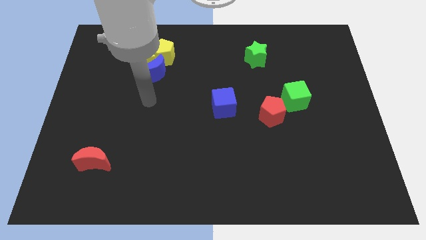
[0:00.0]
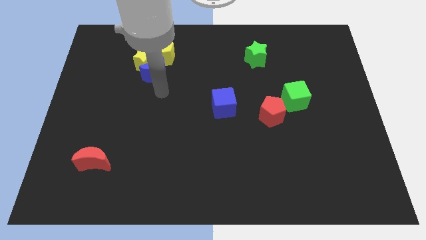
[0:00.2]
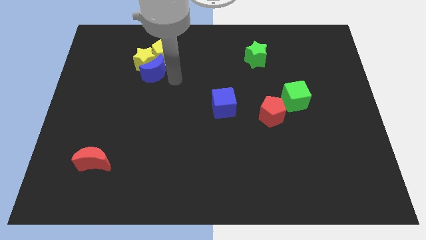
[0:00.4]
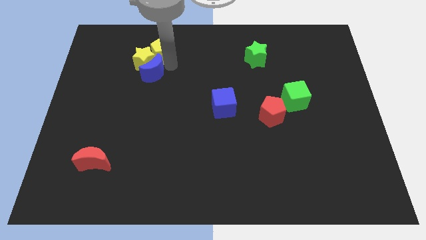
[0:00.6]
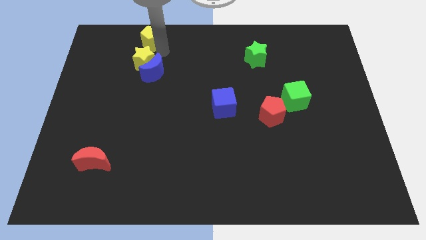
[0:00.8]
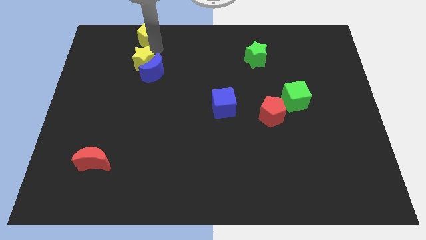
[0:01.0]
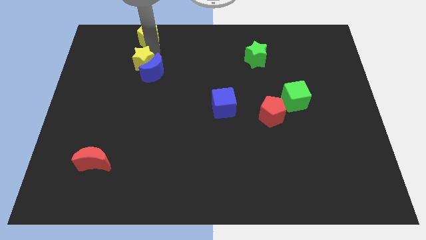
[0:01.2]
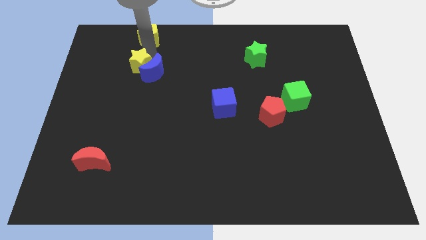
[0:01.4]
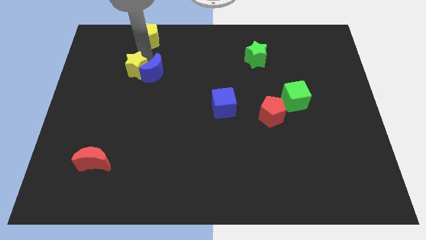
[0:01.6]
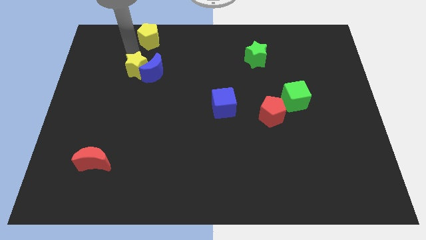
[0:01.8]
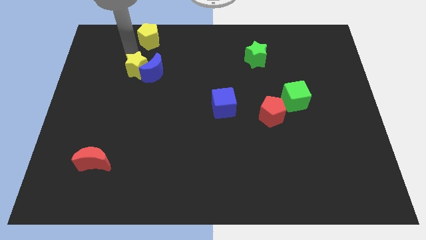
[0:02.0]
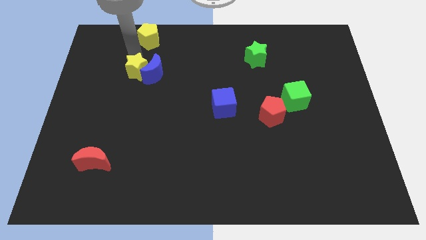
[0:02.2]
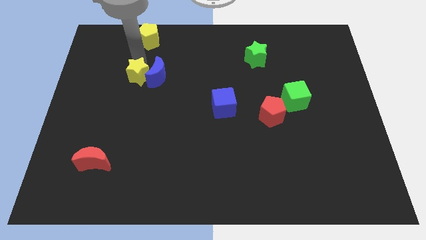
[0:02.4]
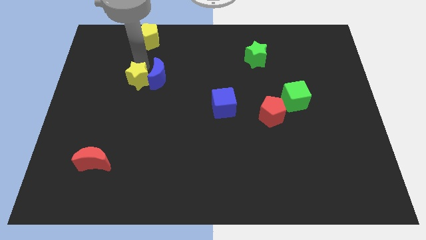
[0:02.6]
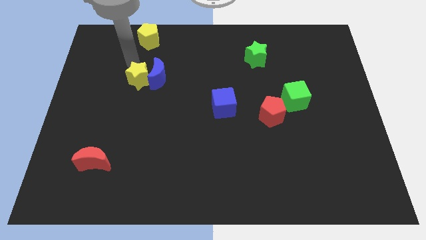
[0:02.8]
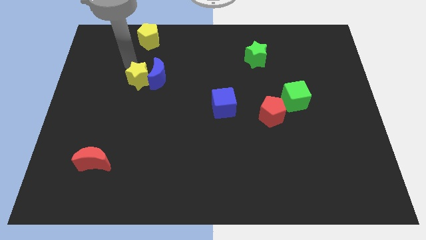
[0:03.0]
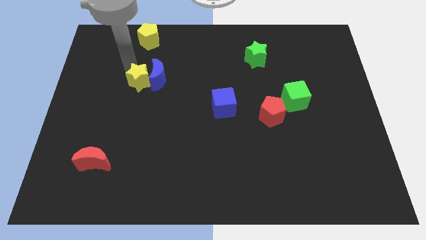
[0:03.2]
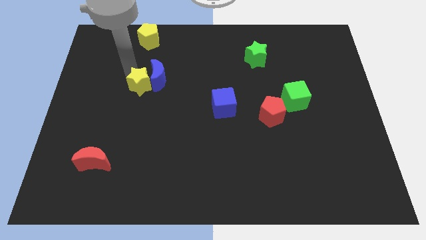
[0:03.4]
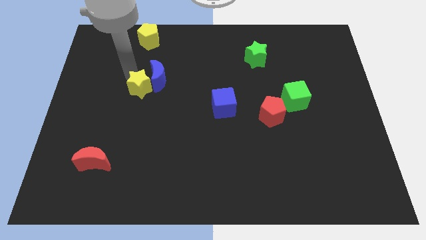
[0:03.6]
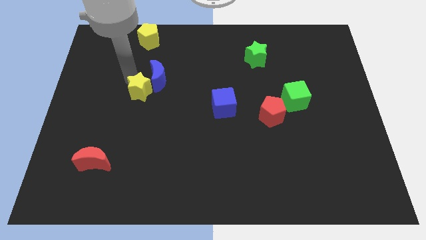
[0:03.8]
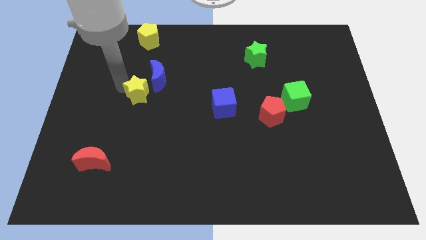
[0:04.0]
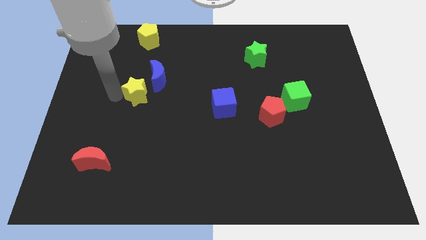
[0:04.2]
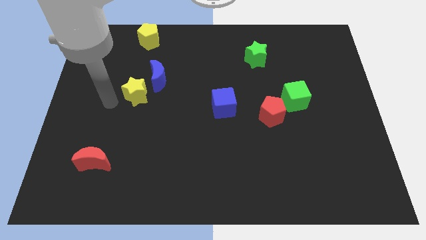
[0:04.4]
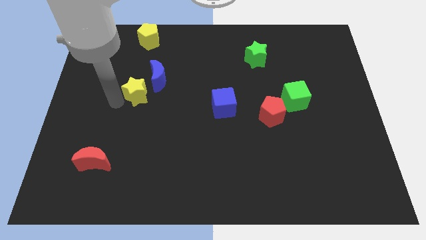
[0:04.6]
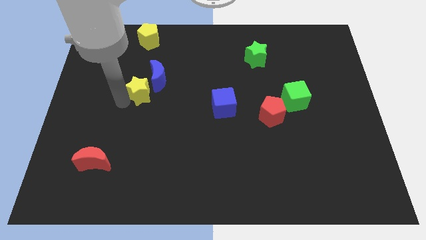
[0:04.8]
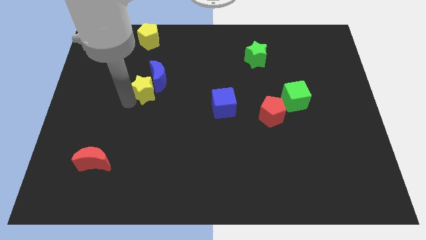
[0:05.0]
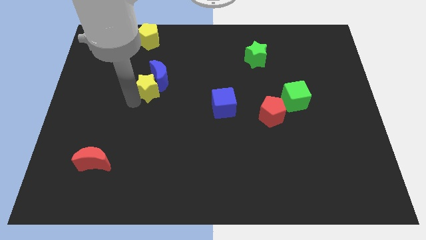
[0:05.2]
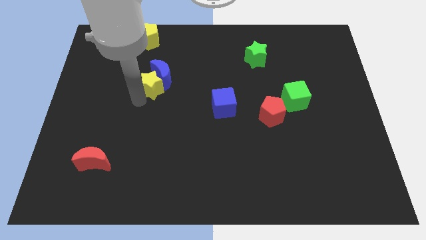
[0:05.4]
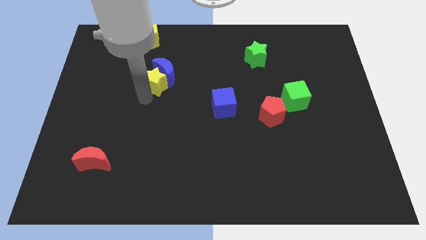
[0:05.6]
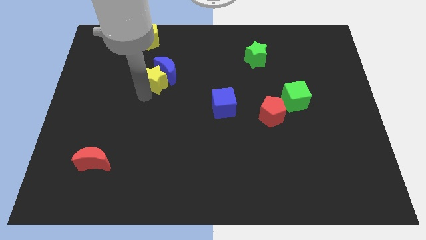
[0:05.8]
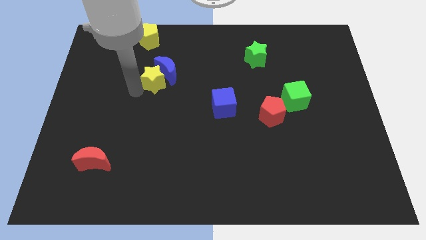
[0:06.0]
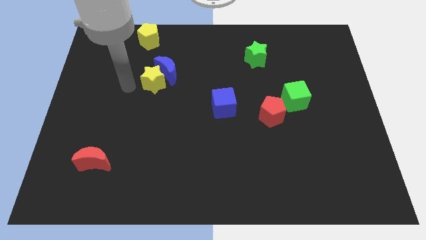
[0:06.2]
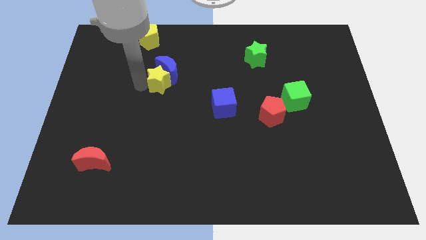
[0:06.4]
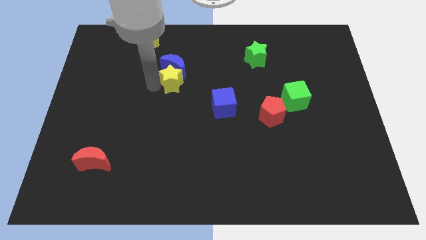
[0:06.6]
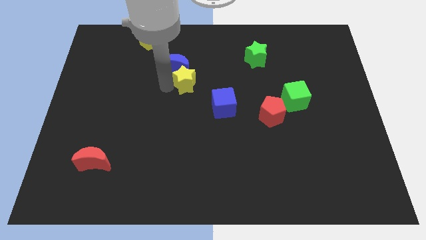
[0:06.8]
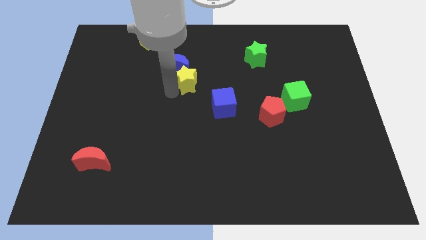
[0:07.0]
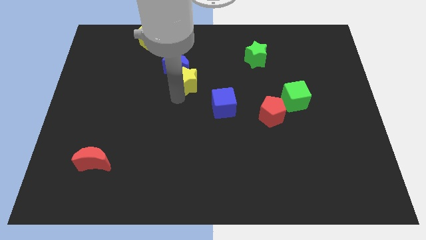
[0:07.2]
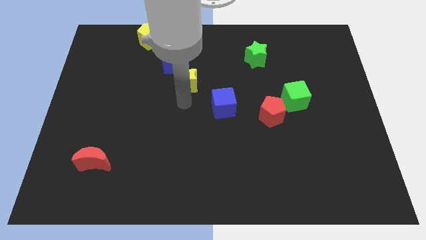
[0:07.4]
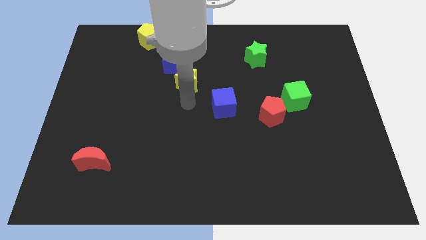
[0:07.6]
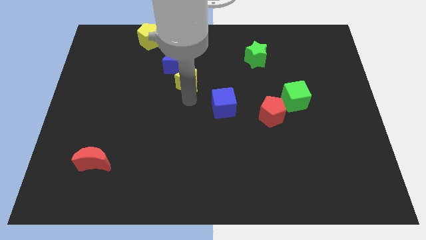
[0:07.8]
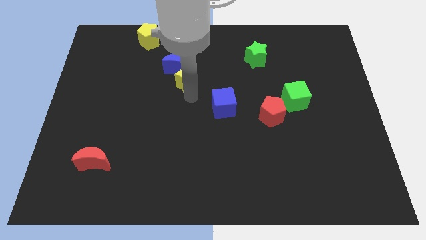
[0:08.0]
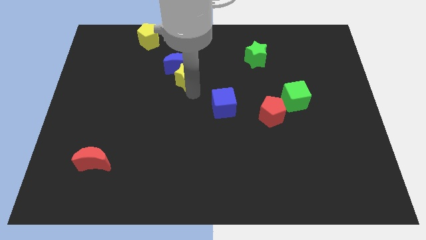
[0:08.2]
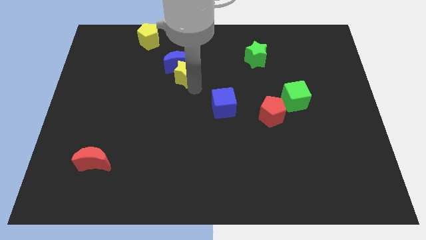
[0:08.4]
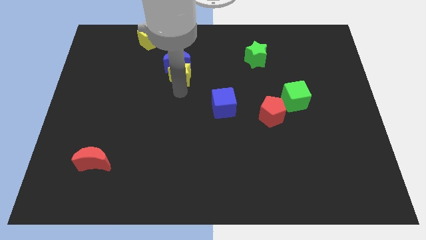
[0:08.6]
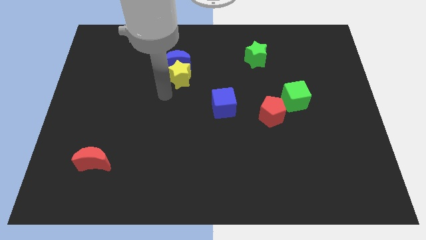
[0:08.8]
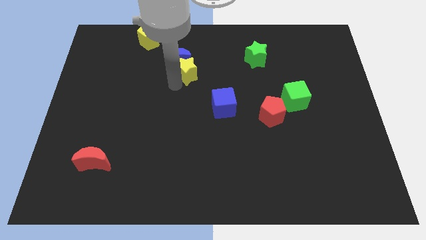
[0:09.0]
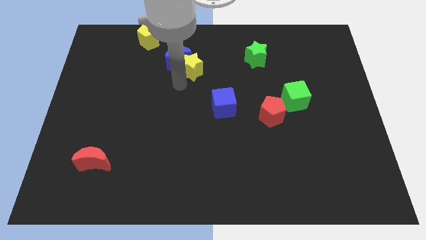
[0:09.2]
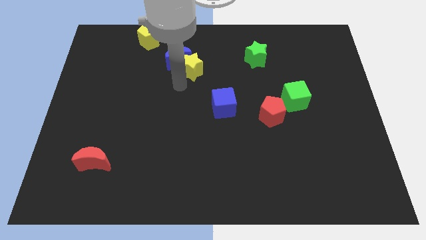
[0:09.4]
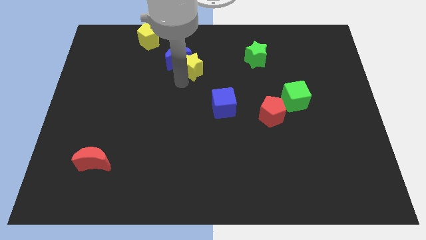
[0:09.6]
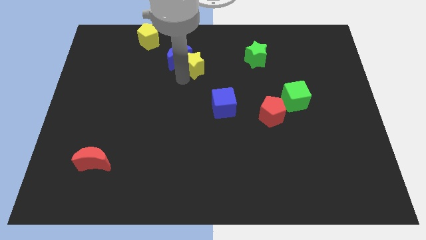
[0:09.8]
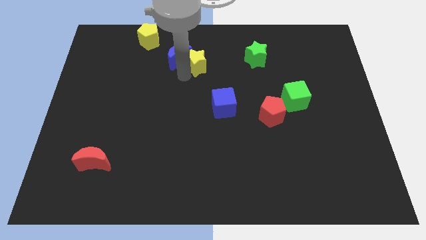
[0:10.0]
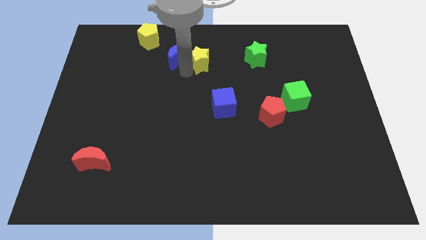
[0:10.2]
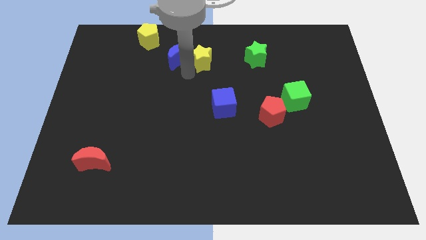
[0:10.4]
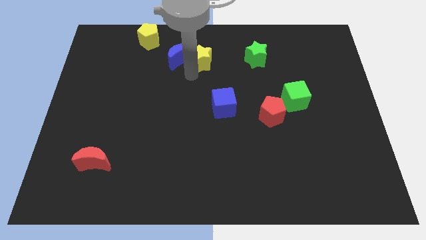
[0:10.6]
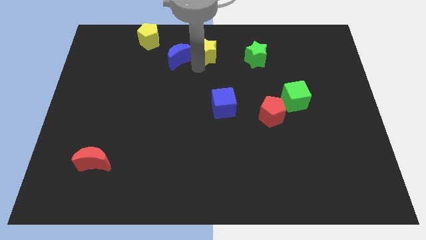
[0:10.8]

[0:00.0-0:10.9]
move the yellow star to the towards your base

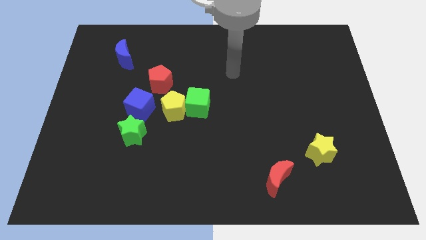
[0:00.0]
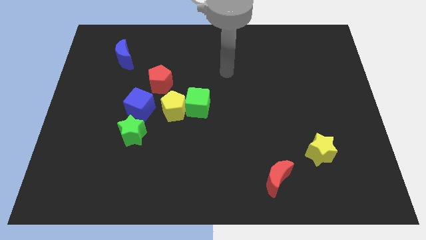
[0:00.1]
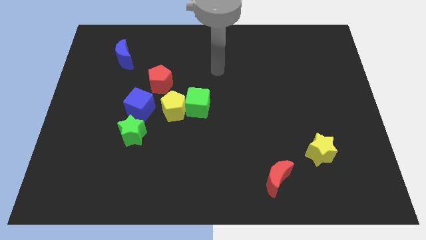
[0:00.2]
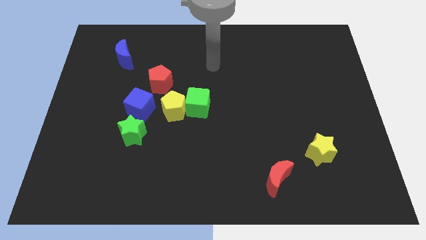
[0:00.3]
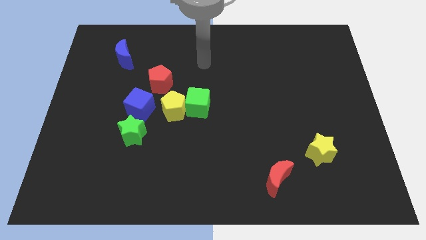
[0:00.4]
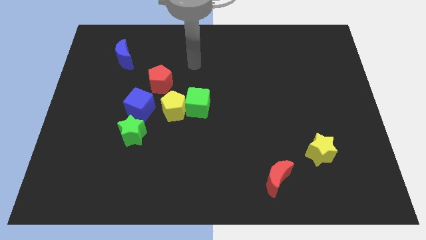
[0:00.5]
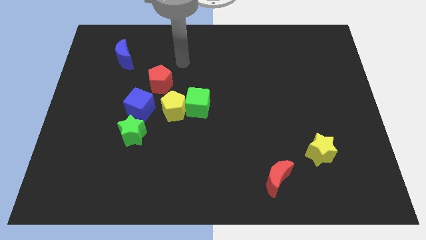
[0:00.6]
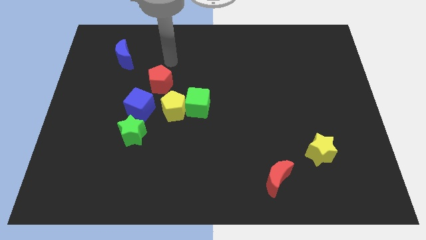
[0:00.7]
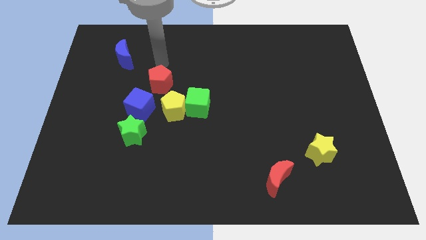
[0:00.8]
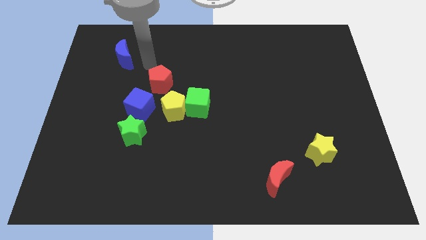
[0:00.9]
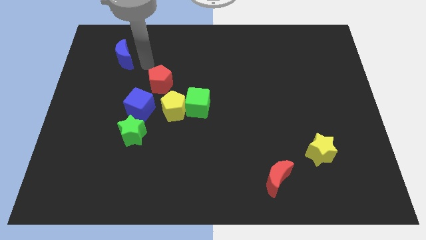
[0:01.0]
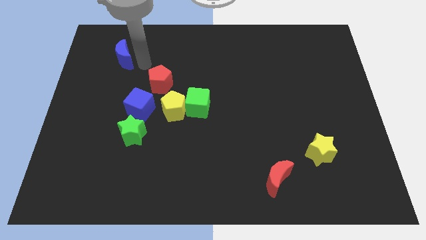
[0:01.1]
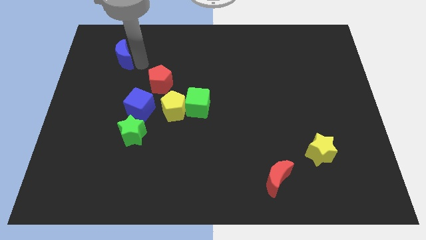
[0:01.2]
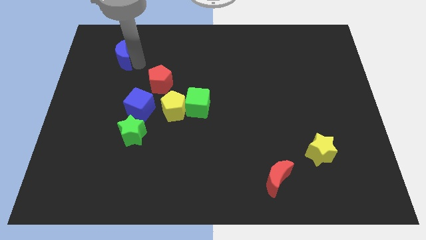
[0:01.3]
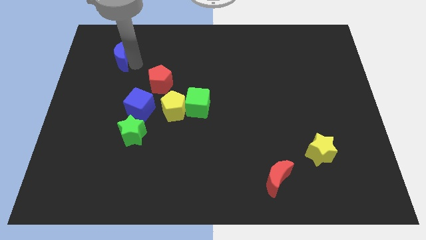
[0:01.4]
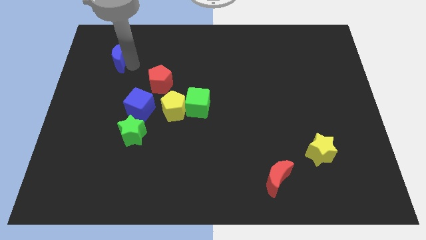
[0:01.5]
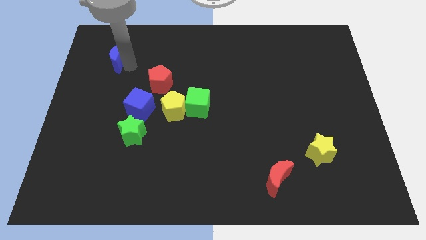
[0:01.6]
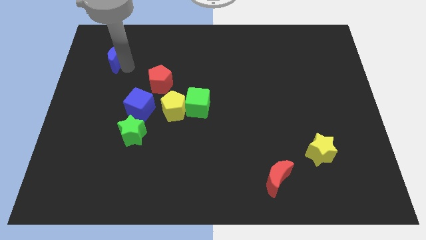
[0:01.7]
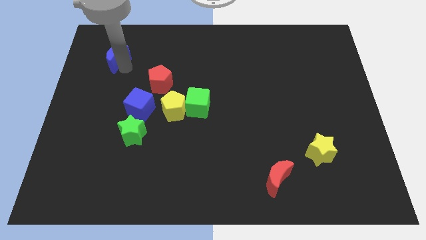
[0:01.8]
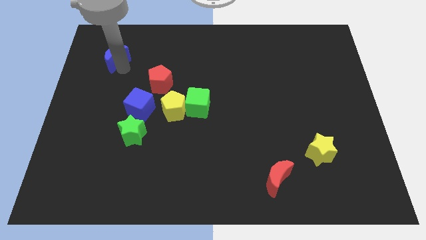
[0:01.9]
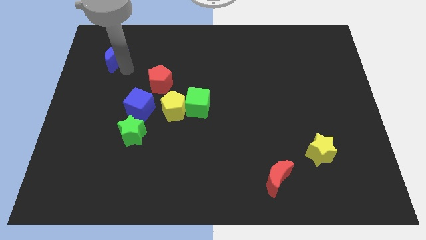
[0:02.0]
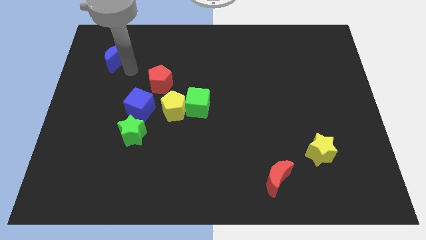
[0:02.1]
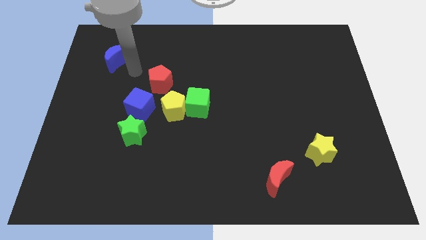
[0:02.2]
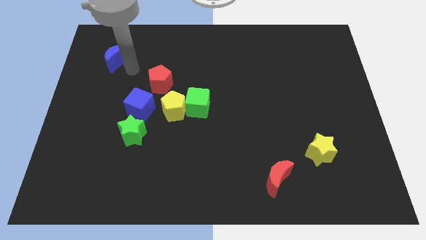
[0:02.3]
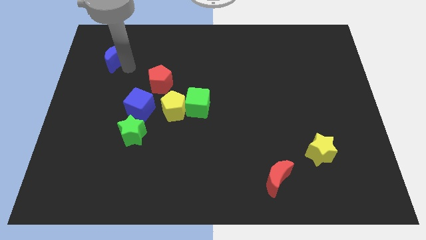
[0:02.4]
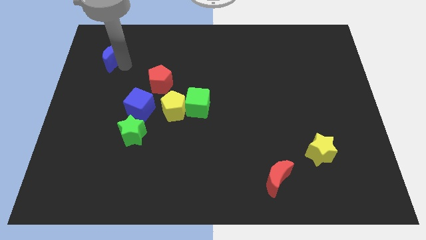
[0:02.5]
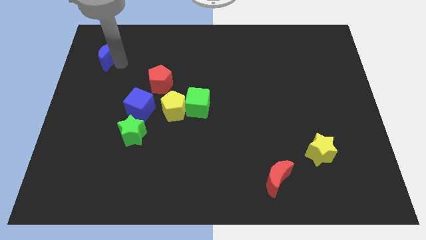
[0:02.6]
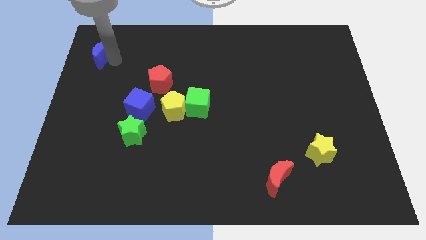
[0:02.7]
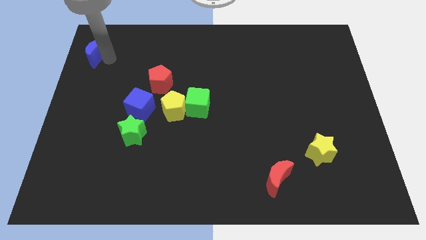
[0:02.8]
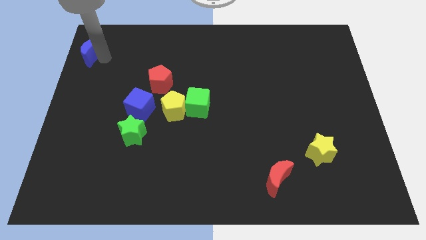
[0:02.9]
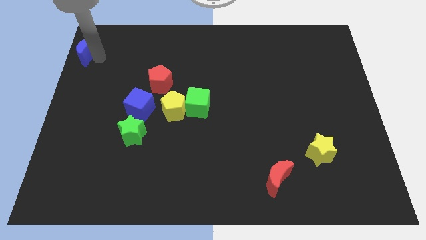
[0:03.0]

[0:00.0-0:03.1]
move the blue moon to the top left of the board
